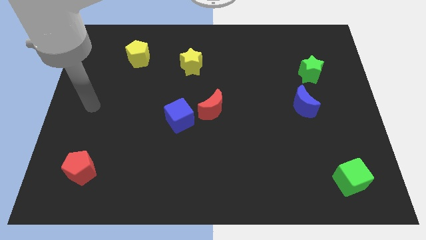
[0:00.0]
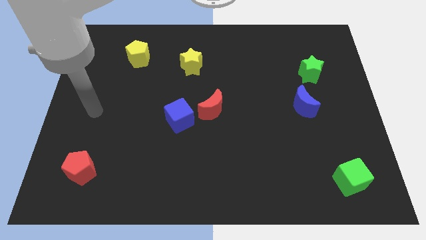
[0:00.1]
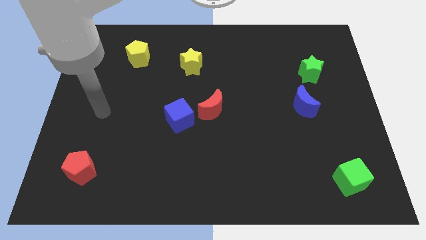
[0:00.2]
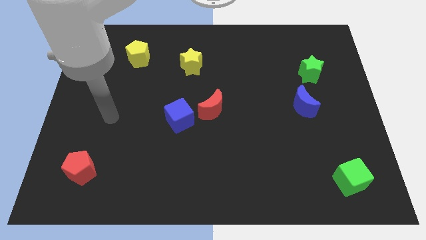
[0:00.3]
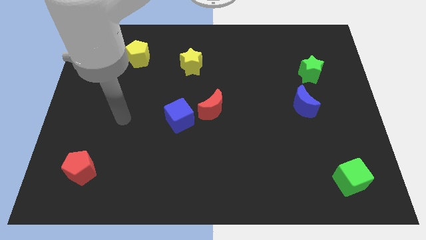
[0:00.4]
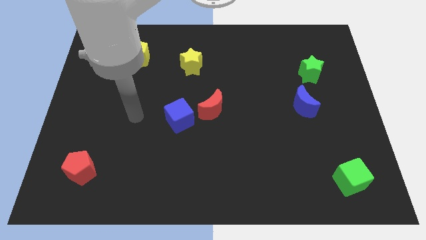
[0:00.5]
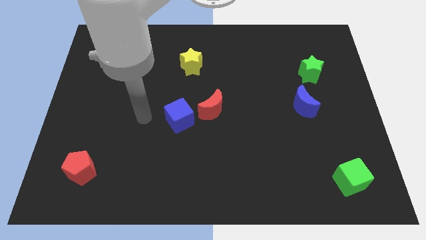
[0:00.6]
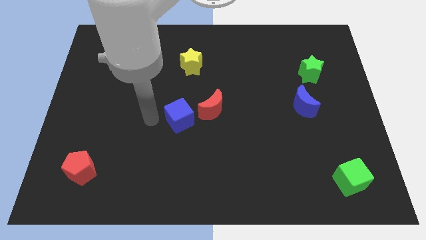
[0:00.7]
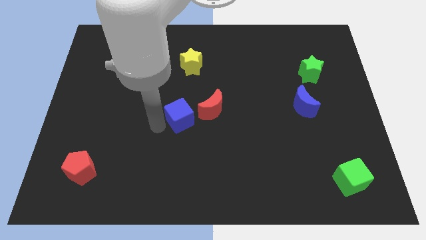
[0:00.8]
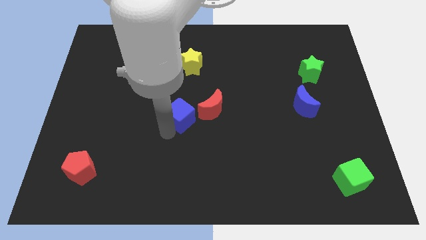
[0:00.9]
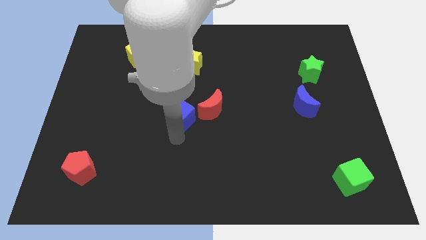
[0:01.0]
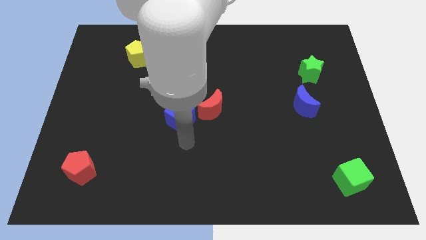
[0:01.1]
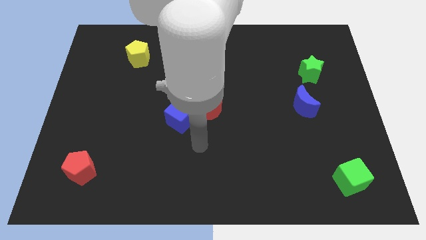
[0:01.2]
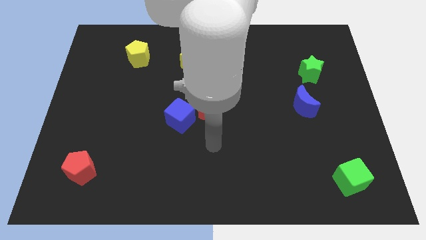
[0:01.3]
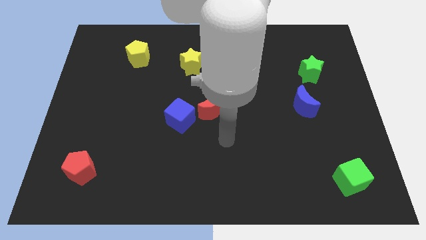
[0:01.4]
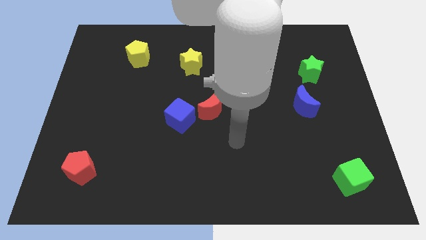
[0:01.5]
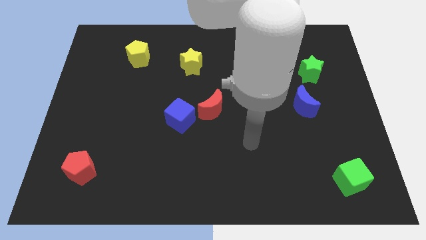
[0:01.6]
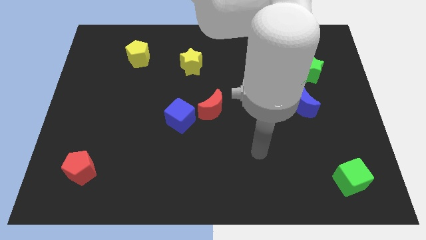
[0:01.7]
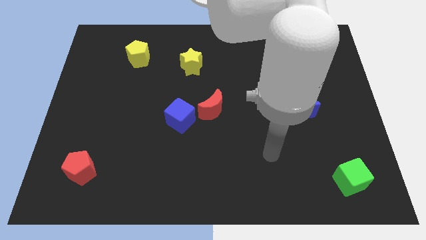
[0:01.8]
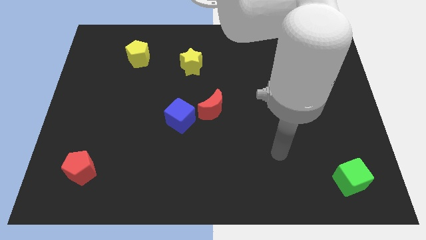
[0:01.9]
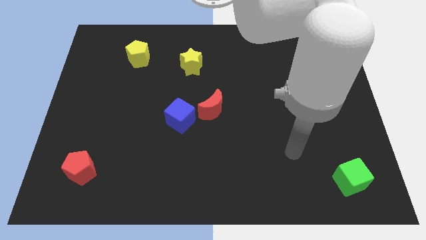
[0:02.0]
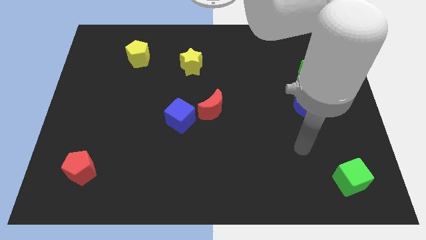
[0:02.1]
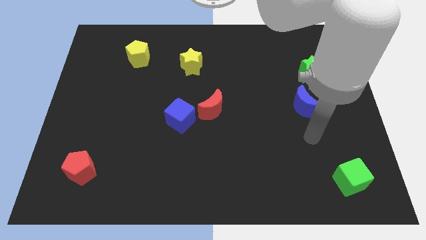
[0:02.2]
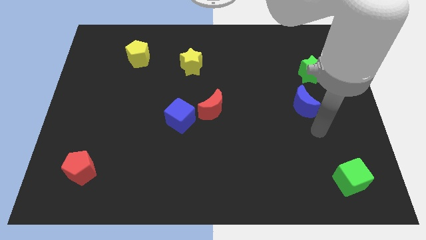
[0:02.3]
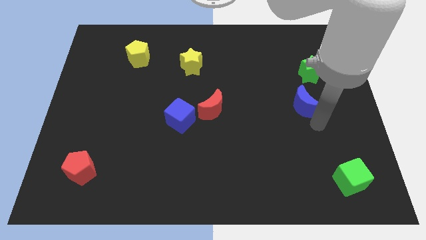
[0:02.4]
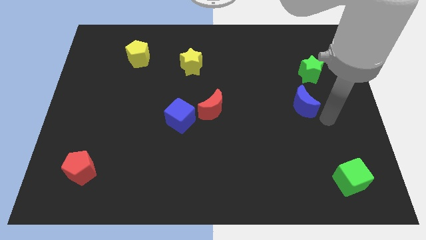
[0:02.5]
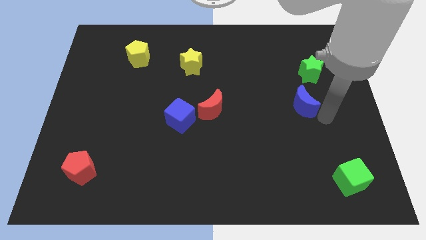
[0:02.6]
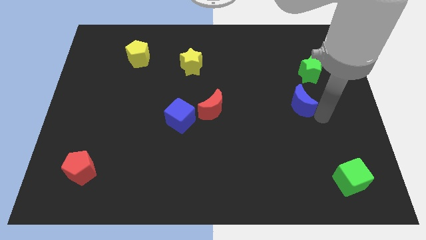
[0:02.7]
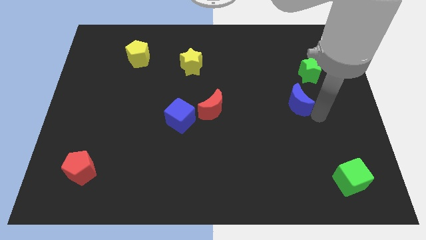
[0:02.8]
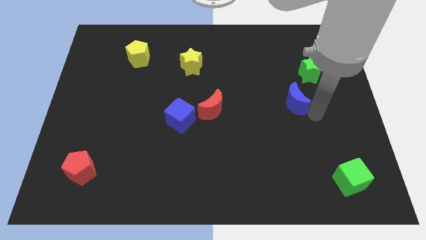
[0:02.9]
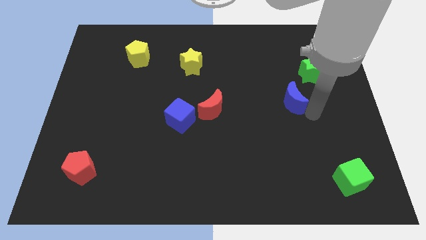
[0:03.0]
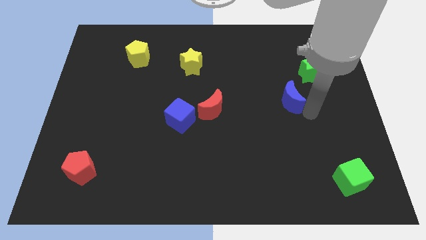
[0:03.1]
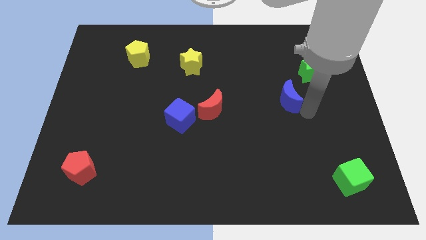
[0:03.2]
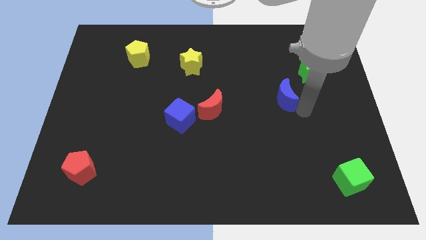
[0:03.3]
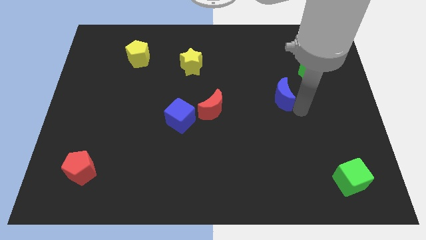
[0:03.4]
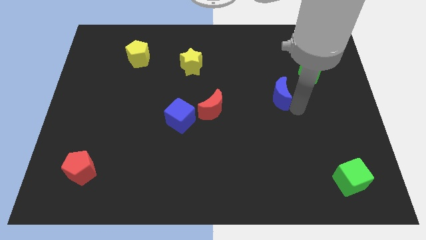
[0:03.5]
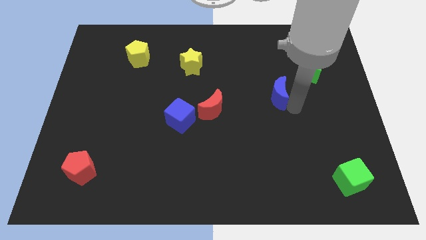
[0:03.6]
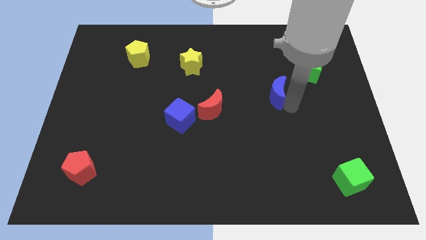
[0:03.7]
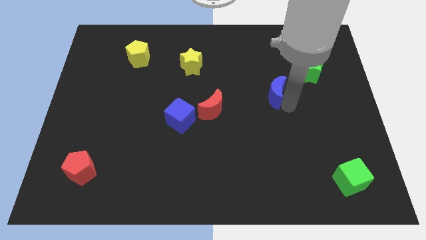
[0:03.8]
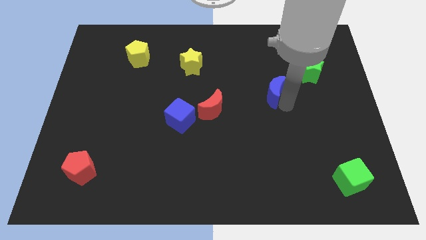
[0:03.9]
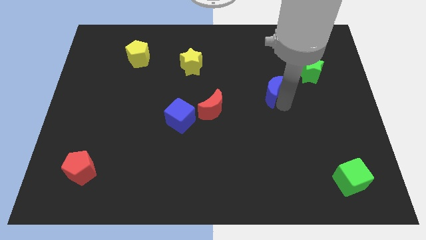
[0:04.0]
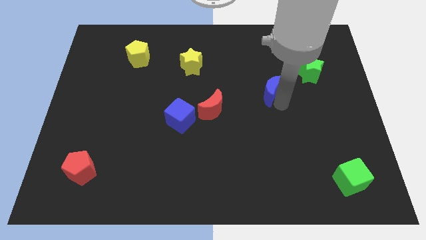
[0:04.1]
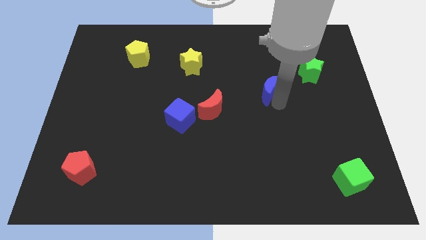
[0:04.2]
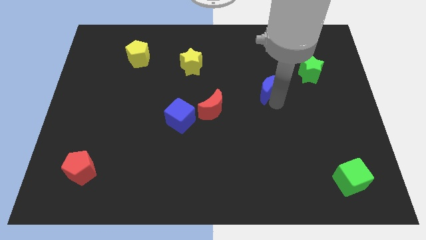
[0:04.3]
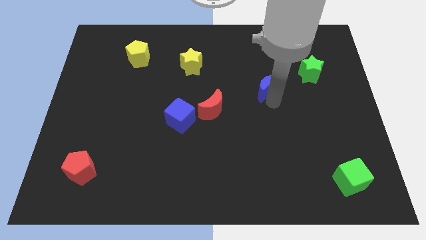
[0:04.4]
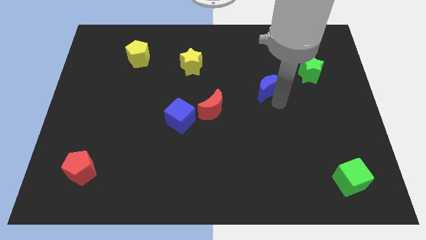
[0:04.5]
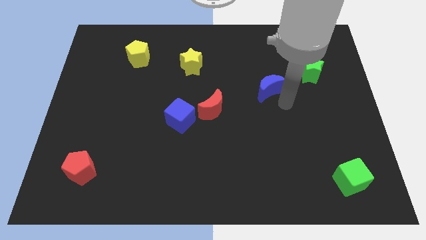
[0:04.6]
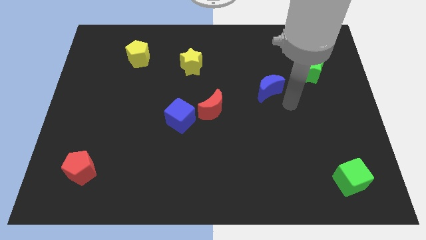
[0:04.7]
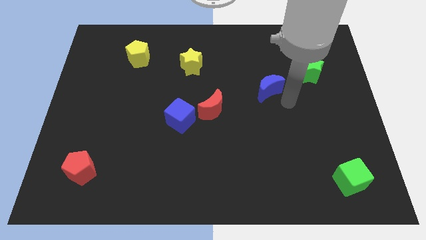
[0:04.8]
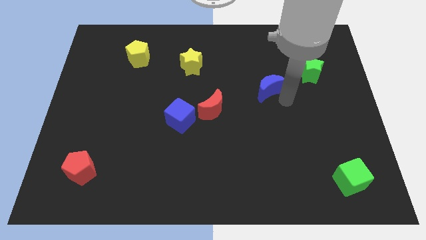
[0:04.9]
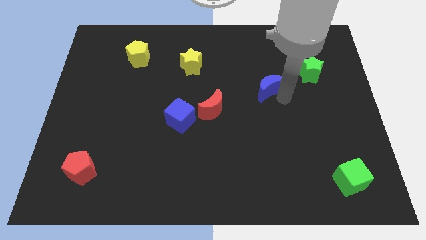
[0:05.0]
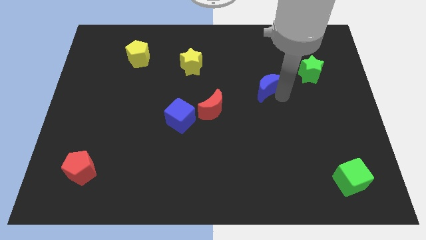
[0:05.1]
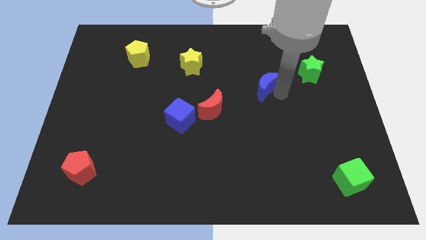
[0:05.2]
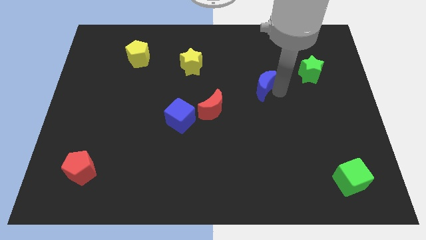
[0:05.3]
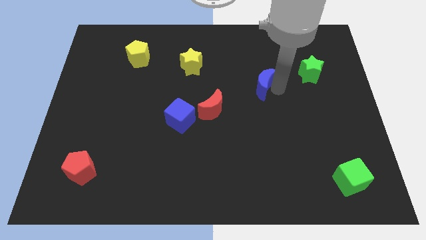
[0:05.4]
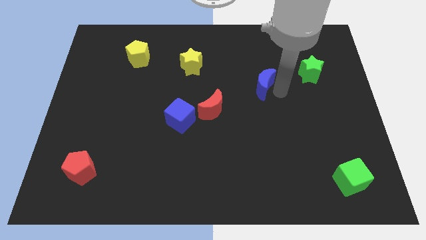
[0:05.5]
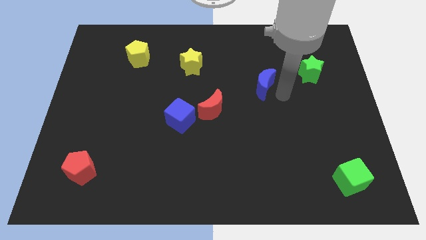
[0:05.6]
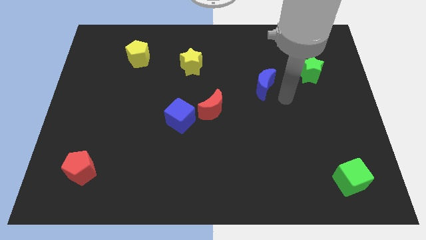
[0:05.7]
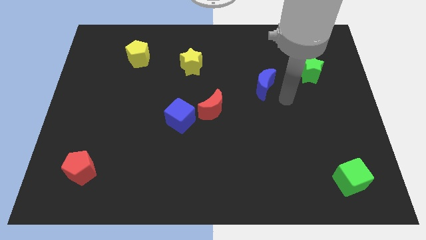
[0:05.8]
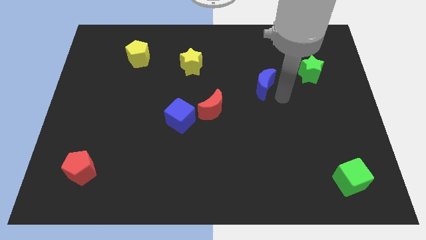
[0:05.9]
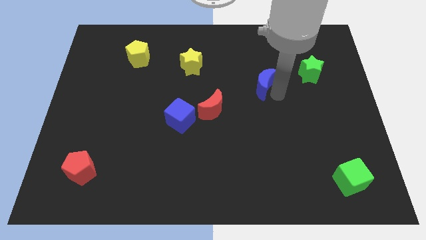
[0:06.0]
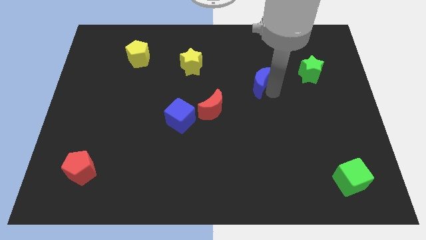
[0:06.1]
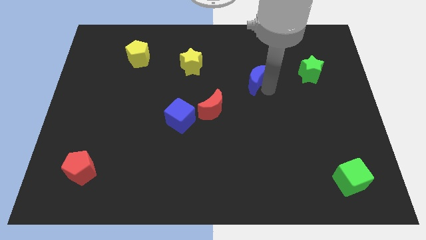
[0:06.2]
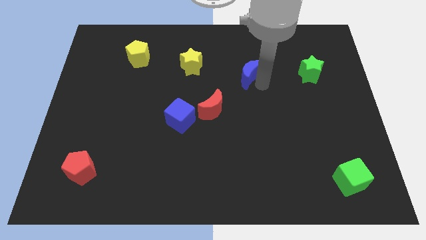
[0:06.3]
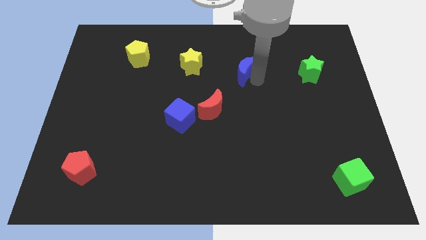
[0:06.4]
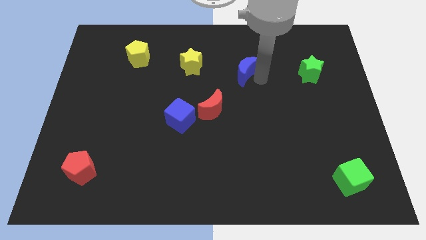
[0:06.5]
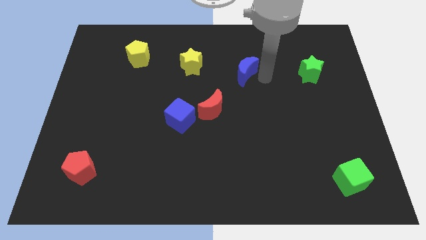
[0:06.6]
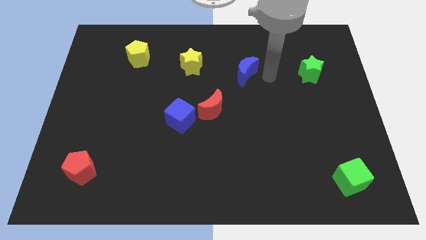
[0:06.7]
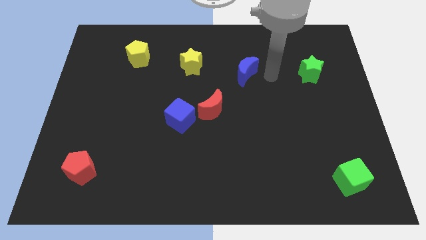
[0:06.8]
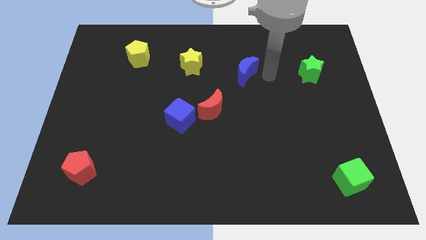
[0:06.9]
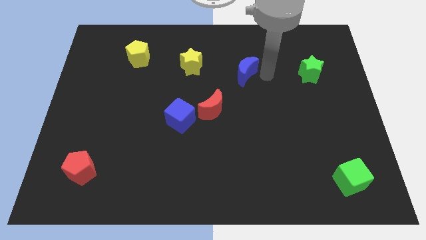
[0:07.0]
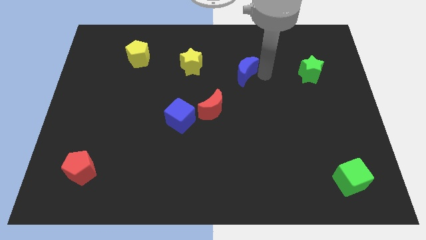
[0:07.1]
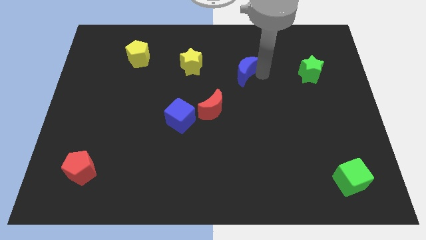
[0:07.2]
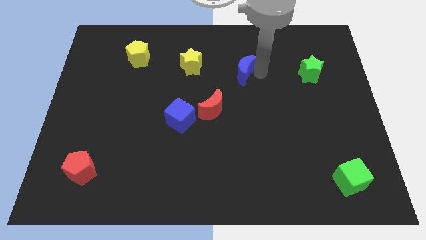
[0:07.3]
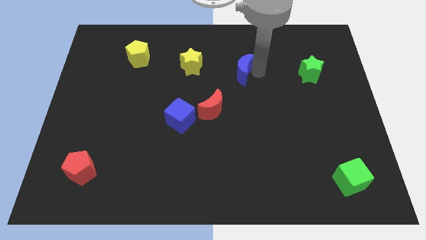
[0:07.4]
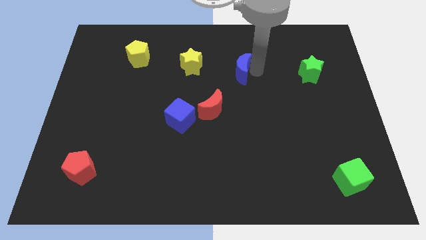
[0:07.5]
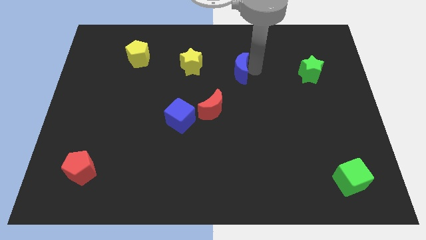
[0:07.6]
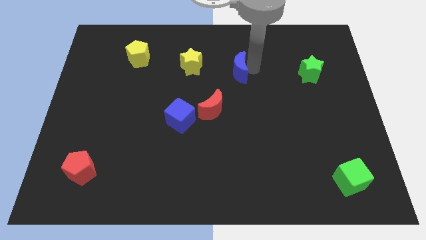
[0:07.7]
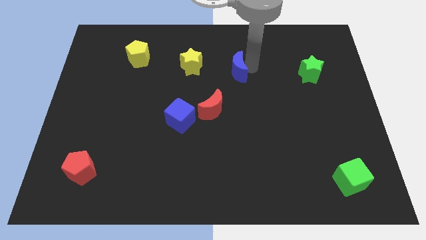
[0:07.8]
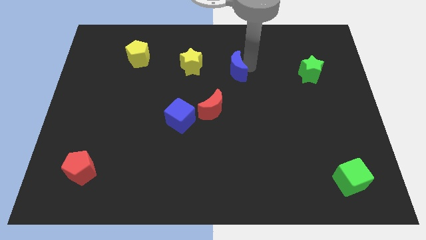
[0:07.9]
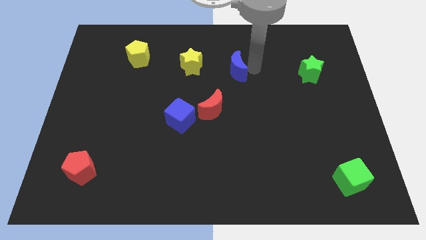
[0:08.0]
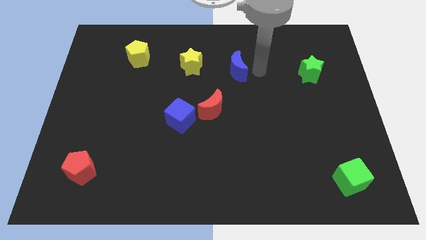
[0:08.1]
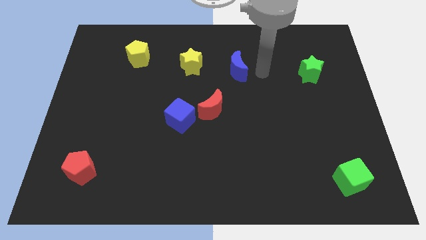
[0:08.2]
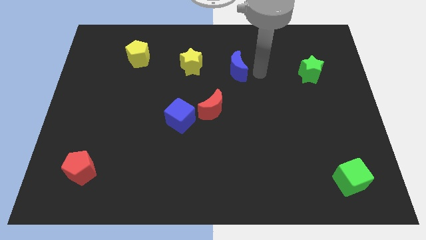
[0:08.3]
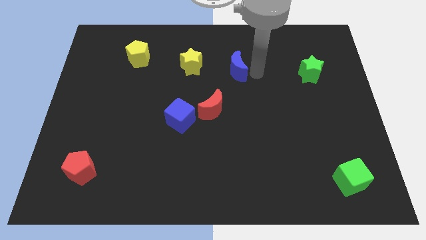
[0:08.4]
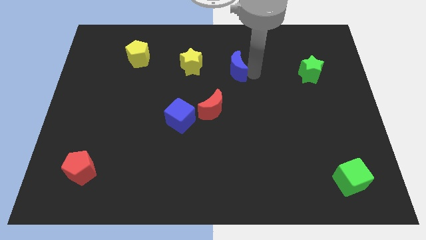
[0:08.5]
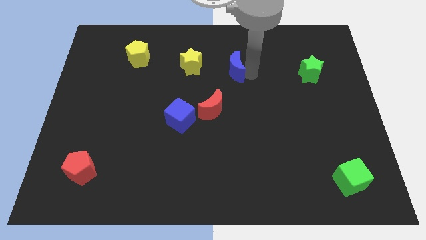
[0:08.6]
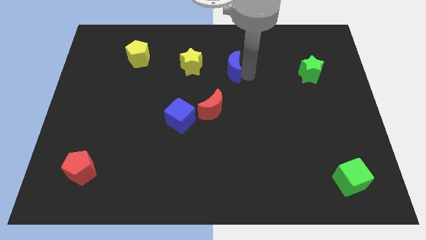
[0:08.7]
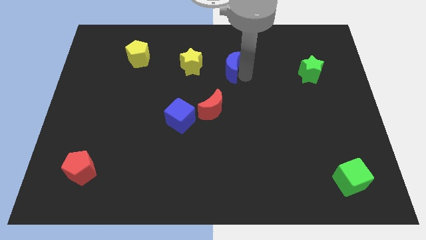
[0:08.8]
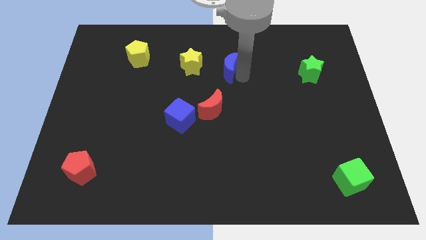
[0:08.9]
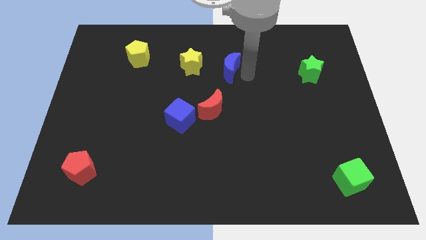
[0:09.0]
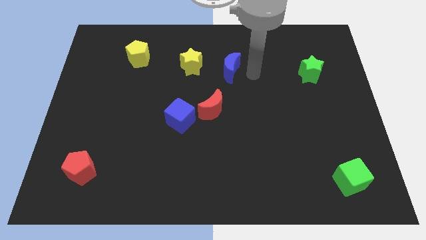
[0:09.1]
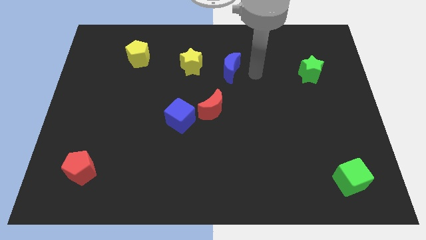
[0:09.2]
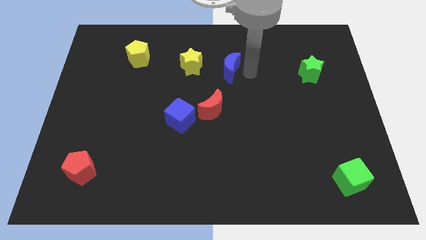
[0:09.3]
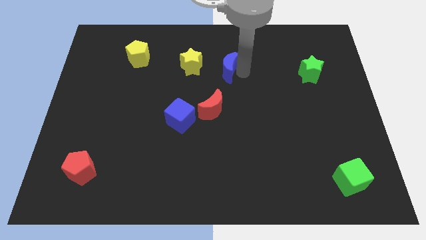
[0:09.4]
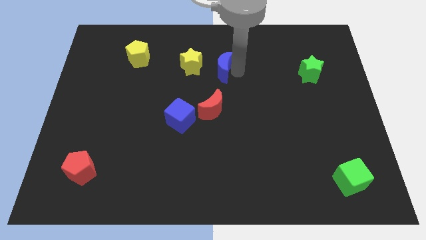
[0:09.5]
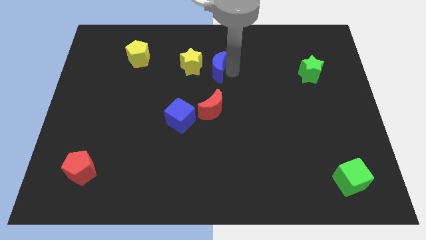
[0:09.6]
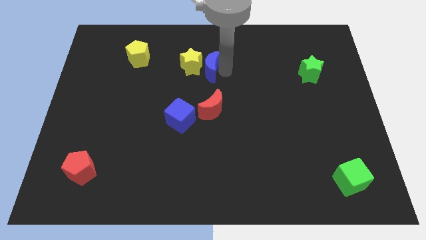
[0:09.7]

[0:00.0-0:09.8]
slide the blue moon close to the yellow star
